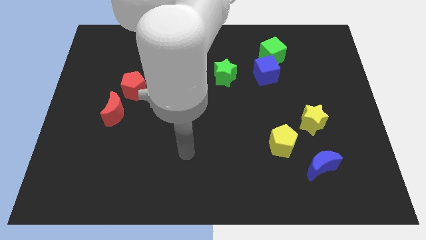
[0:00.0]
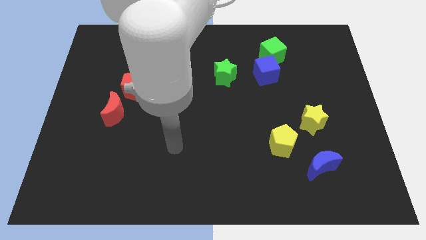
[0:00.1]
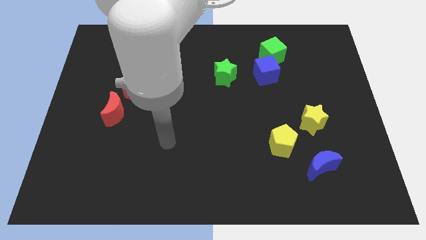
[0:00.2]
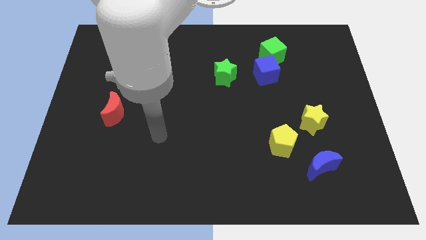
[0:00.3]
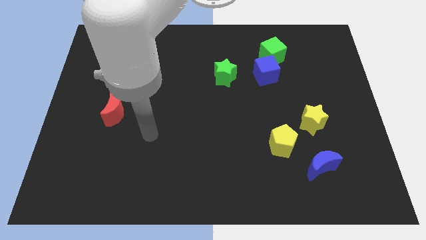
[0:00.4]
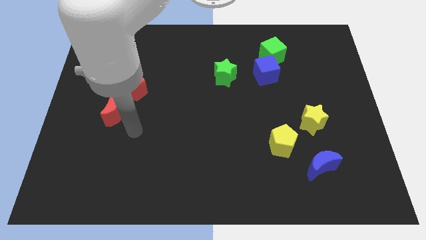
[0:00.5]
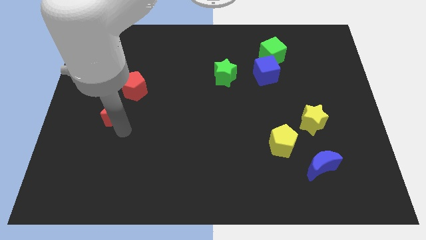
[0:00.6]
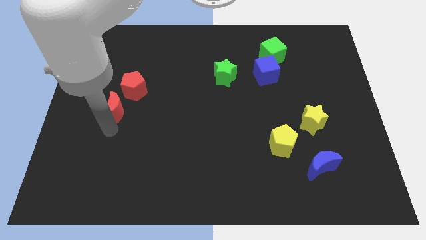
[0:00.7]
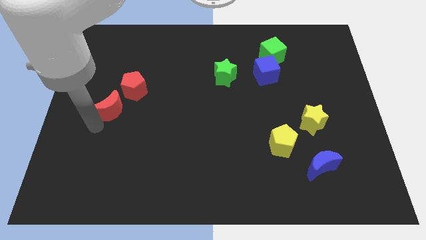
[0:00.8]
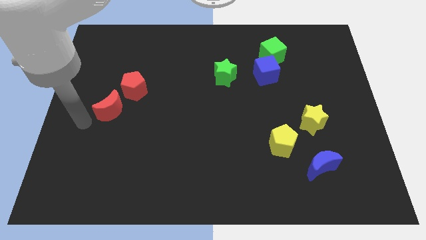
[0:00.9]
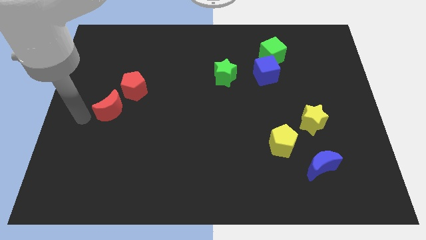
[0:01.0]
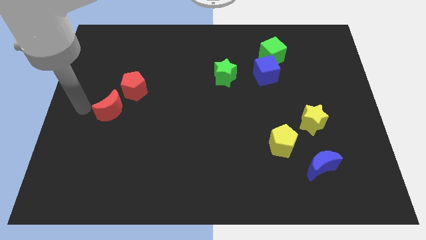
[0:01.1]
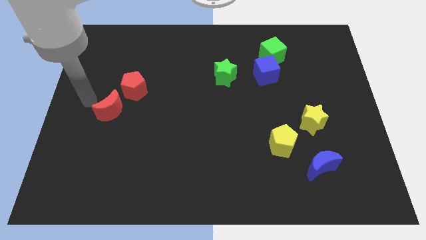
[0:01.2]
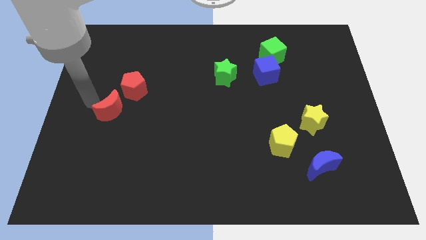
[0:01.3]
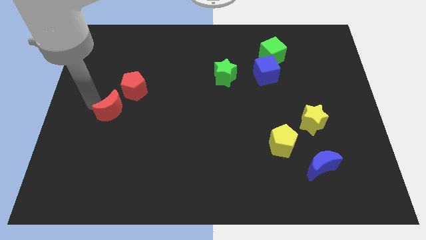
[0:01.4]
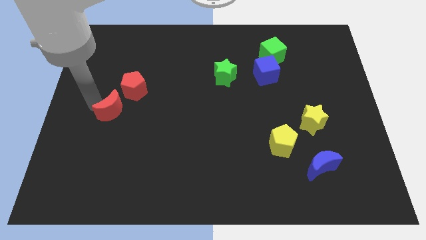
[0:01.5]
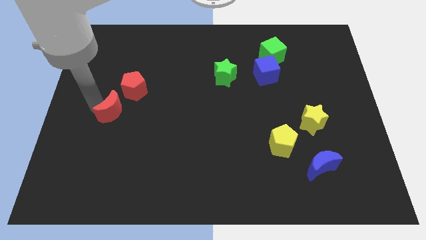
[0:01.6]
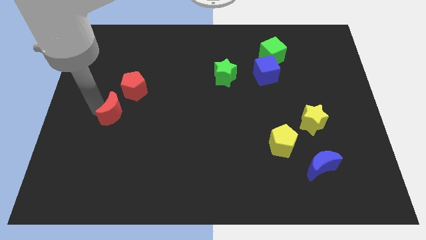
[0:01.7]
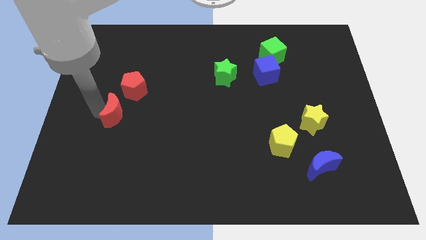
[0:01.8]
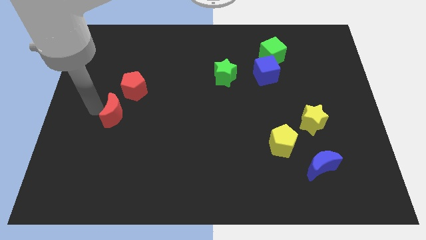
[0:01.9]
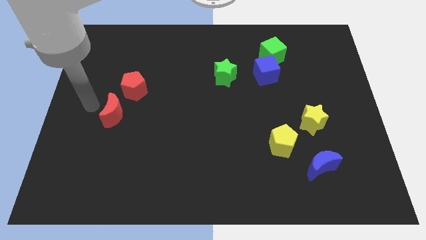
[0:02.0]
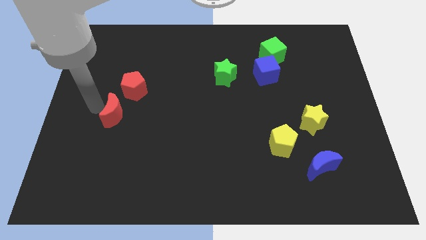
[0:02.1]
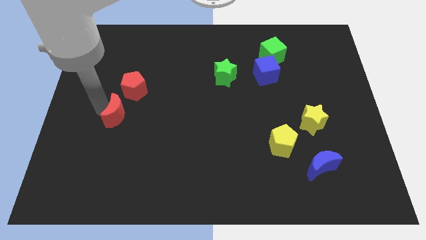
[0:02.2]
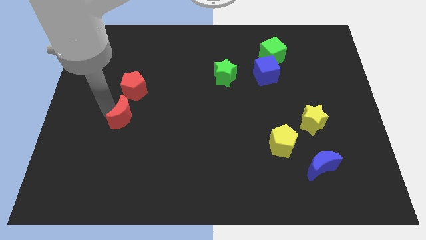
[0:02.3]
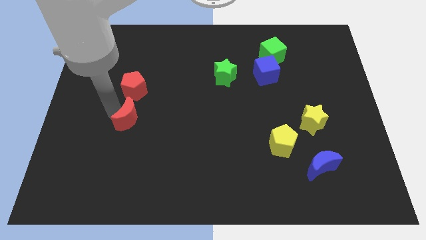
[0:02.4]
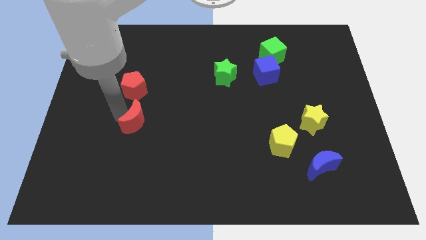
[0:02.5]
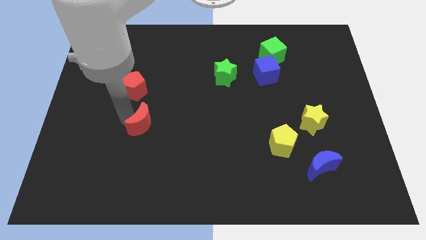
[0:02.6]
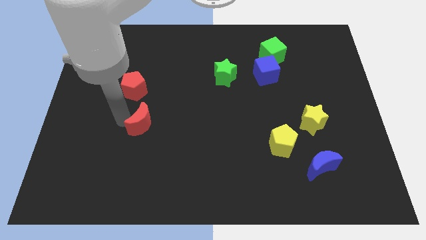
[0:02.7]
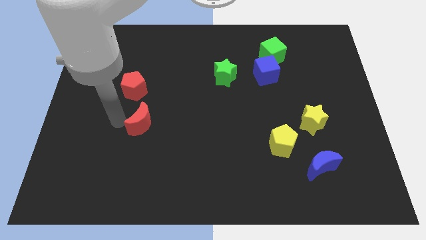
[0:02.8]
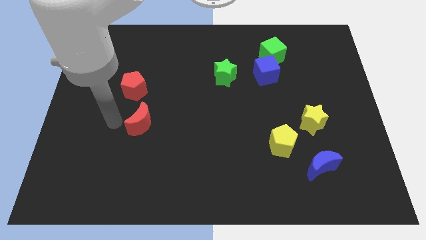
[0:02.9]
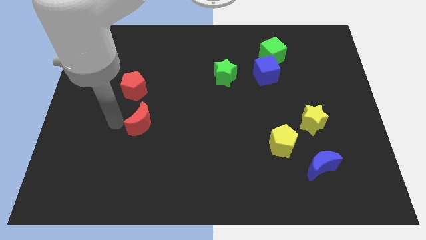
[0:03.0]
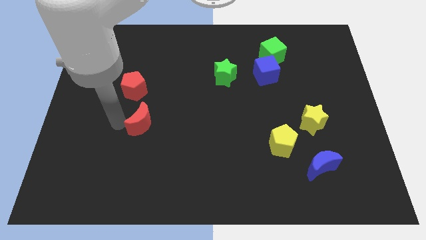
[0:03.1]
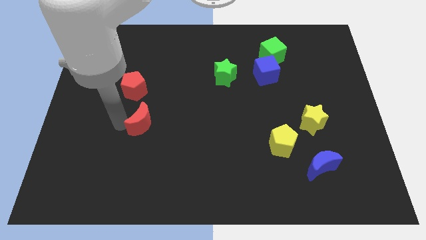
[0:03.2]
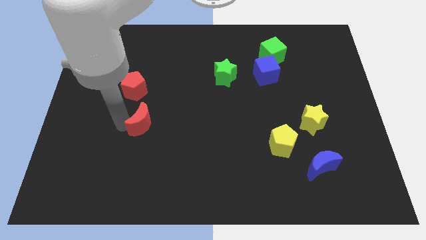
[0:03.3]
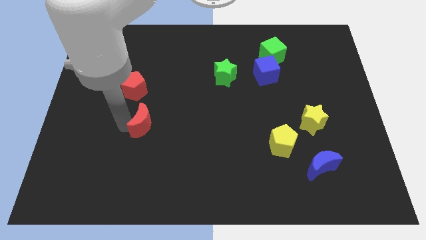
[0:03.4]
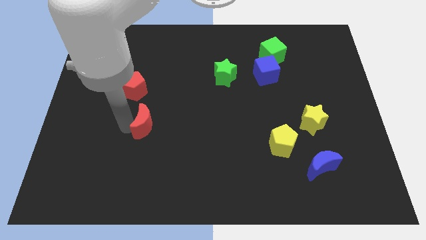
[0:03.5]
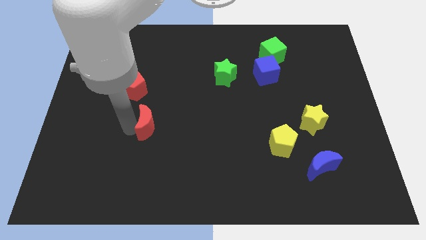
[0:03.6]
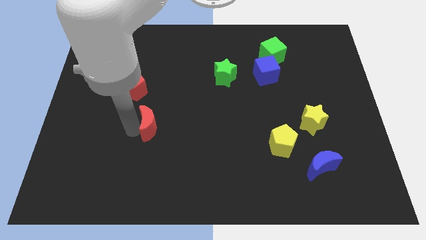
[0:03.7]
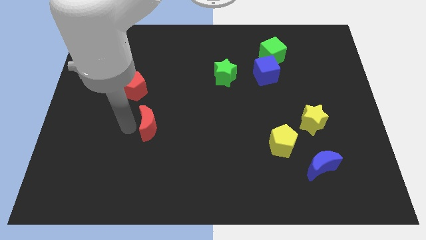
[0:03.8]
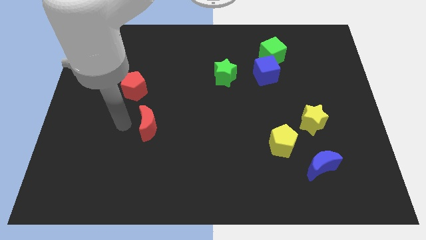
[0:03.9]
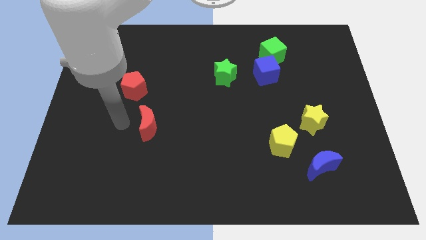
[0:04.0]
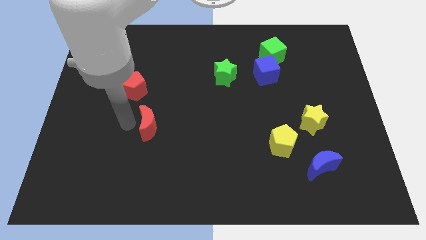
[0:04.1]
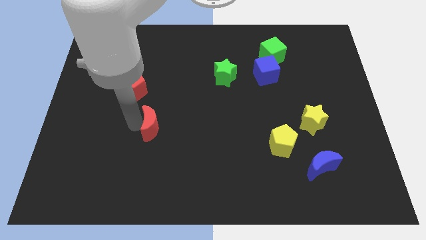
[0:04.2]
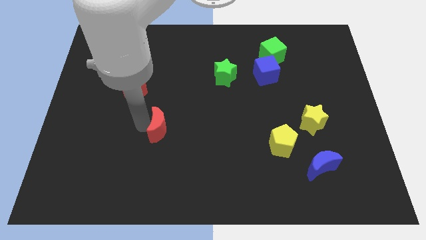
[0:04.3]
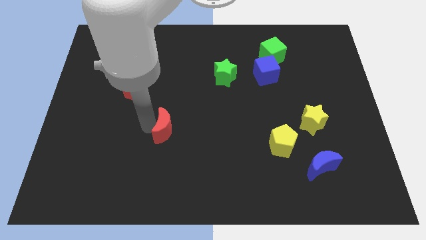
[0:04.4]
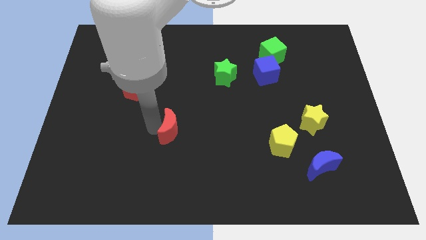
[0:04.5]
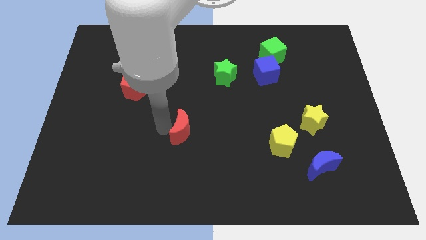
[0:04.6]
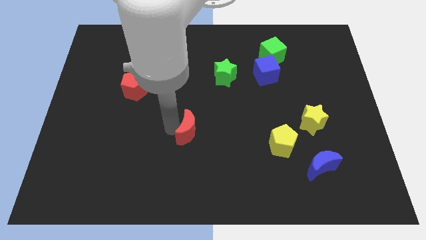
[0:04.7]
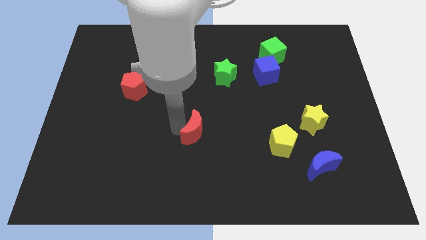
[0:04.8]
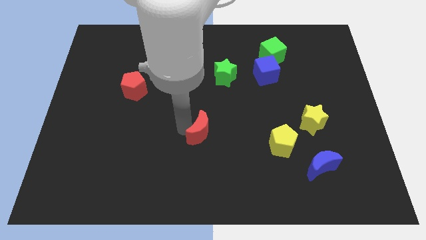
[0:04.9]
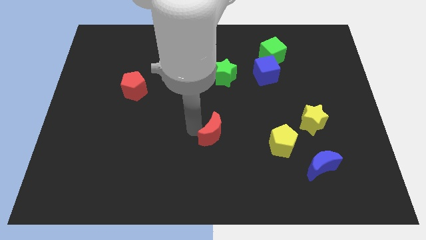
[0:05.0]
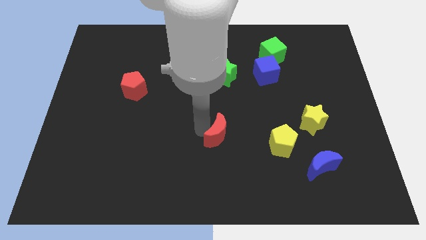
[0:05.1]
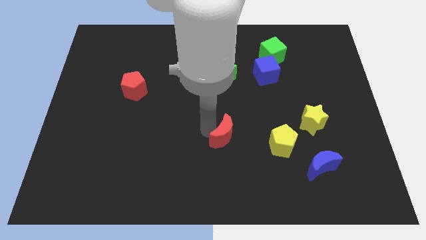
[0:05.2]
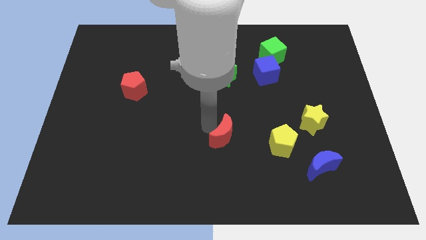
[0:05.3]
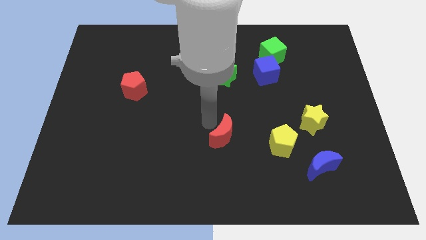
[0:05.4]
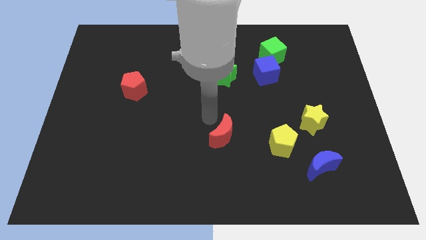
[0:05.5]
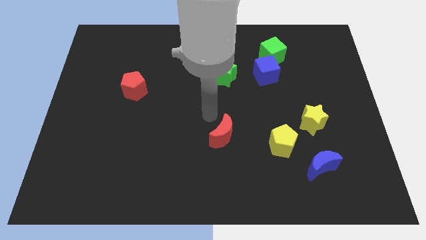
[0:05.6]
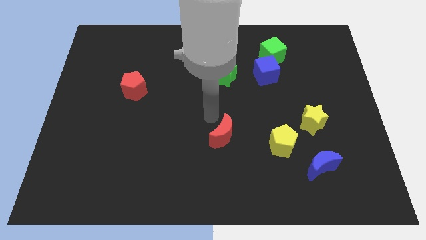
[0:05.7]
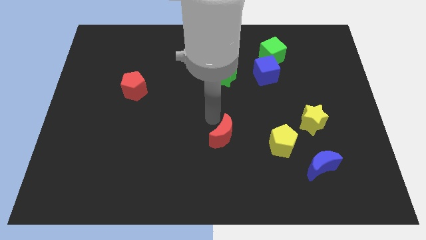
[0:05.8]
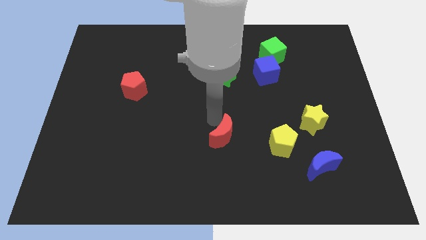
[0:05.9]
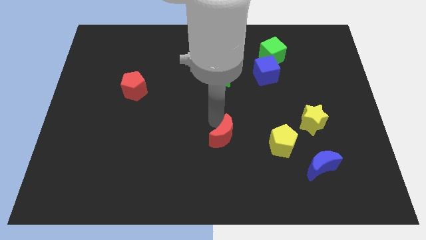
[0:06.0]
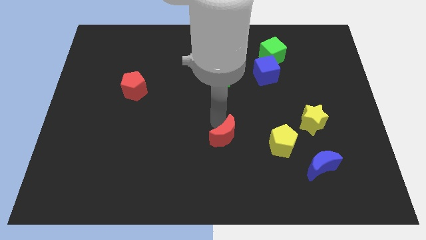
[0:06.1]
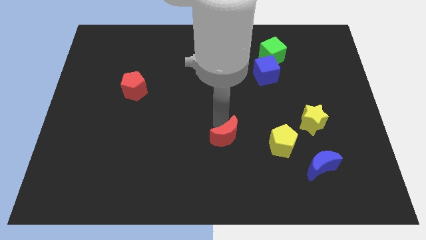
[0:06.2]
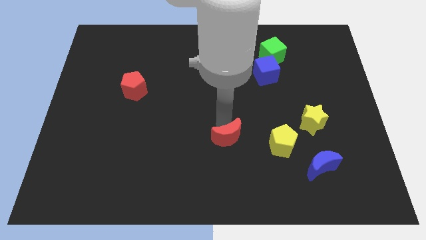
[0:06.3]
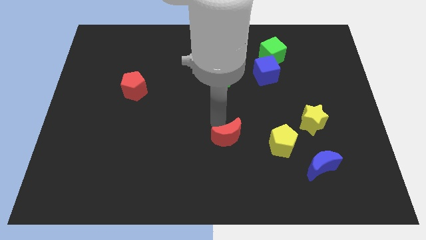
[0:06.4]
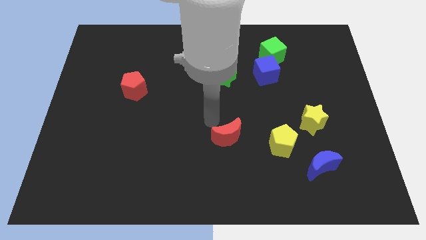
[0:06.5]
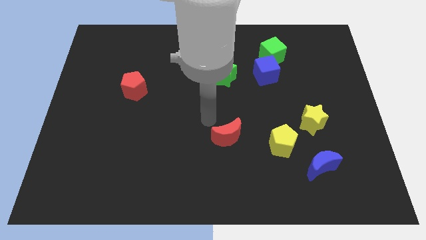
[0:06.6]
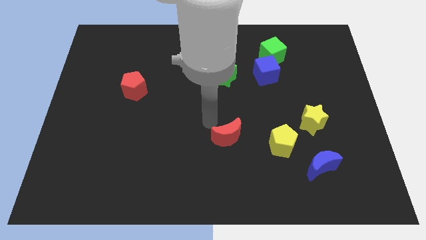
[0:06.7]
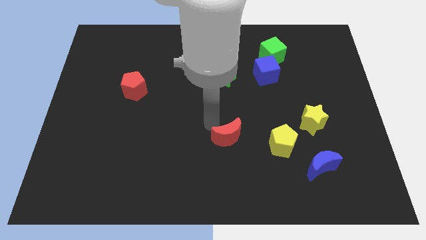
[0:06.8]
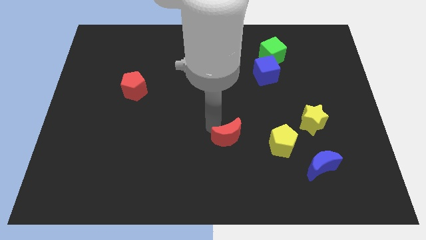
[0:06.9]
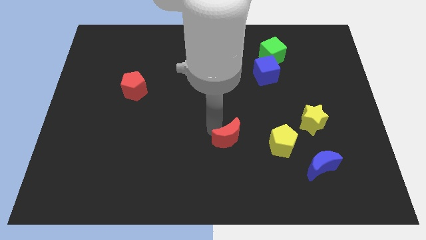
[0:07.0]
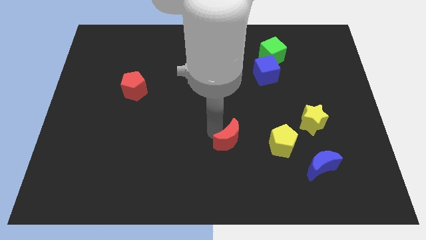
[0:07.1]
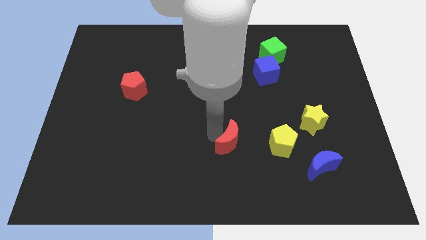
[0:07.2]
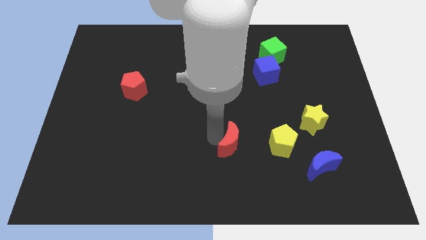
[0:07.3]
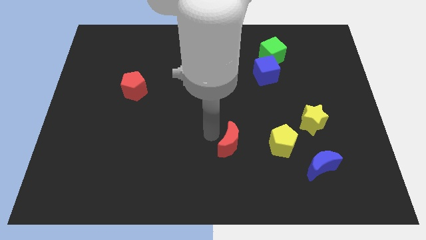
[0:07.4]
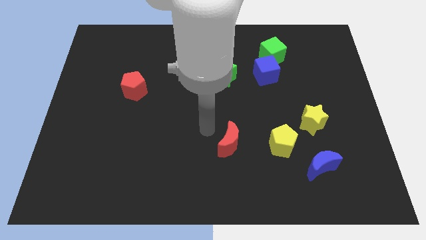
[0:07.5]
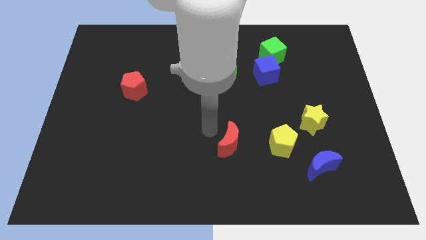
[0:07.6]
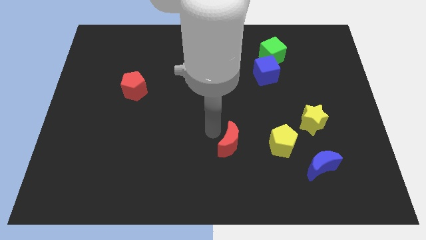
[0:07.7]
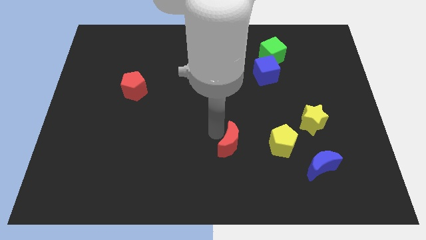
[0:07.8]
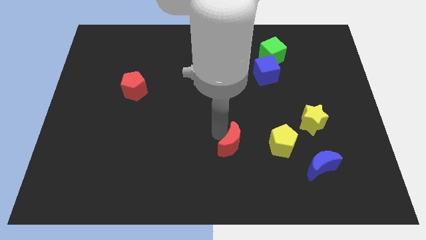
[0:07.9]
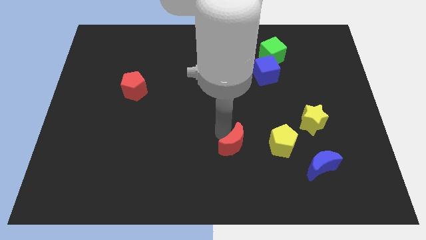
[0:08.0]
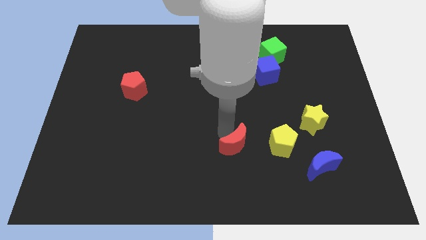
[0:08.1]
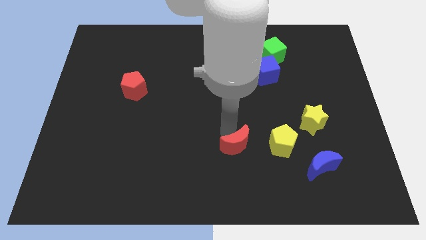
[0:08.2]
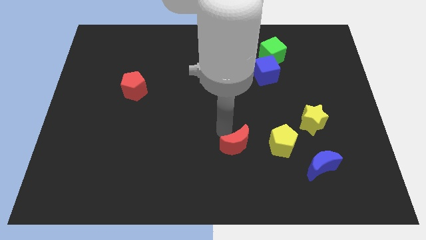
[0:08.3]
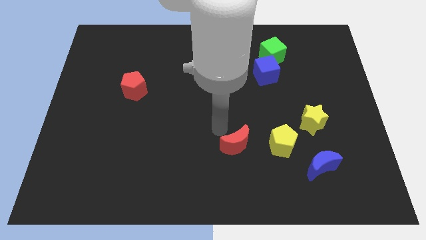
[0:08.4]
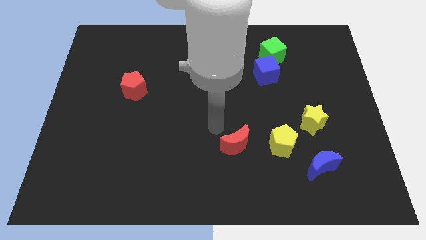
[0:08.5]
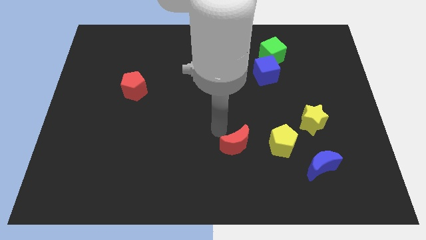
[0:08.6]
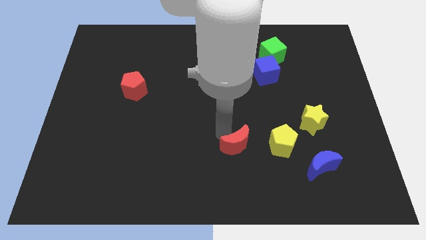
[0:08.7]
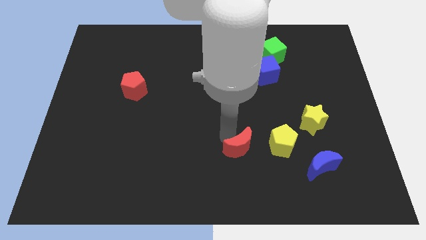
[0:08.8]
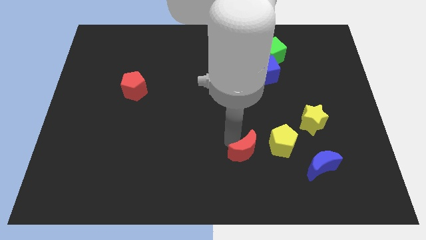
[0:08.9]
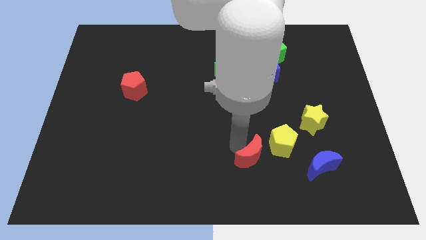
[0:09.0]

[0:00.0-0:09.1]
push the red moon to the left side of the blue moon
